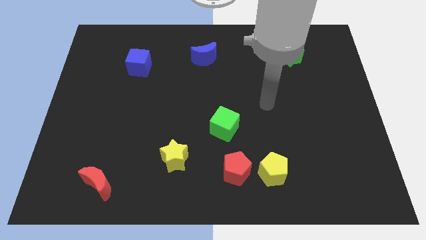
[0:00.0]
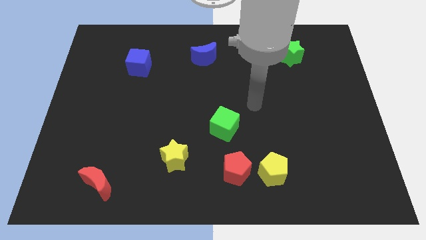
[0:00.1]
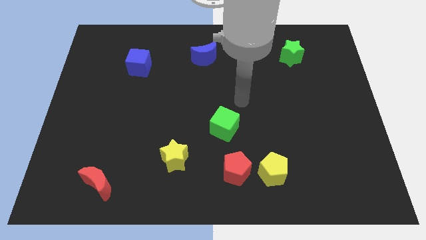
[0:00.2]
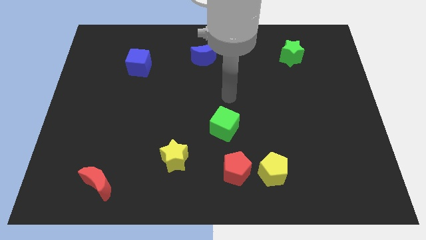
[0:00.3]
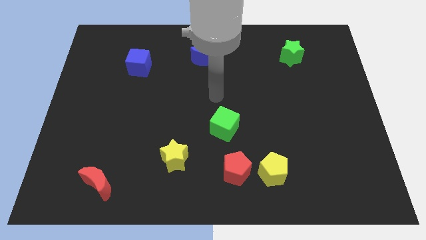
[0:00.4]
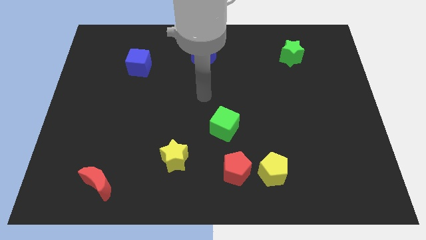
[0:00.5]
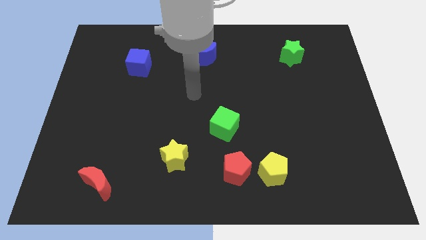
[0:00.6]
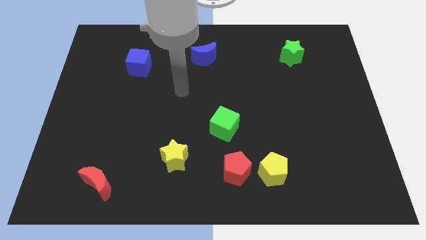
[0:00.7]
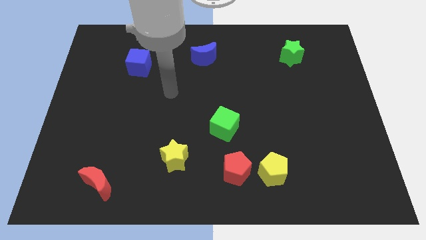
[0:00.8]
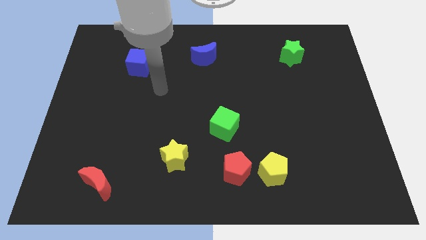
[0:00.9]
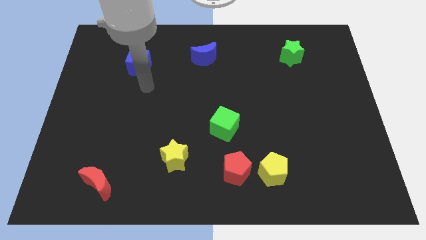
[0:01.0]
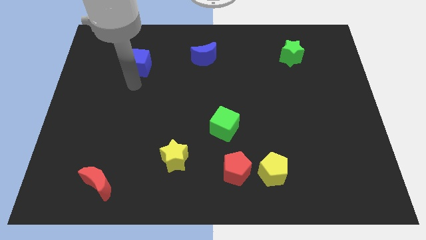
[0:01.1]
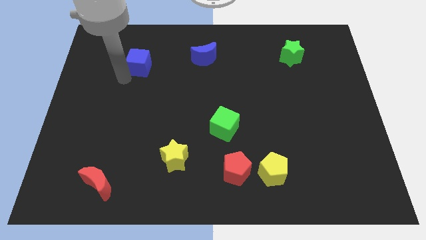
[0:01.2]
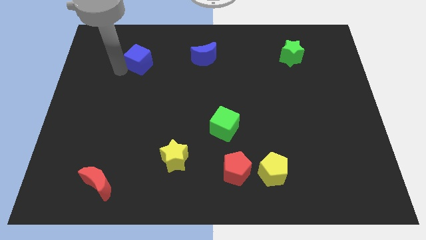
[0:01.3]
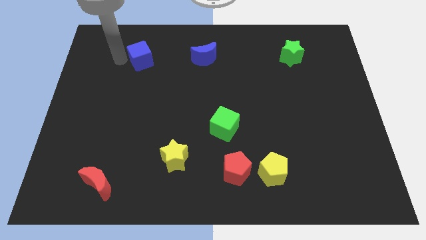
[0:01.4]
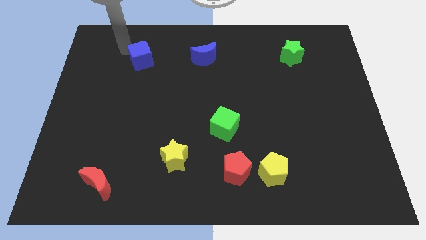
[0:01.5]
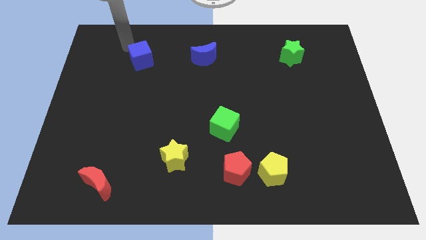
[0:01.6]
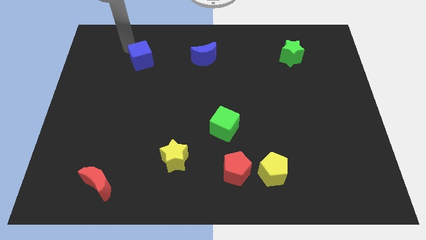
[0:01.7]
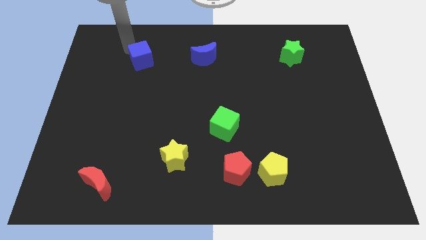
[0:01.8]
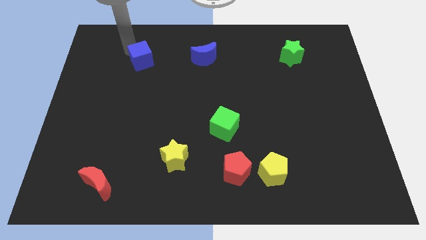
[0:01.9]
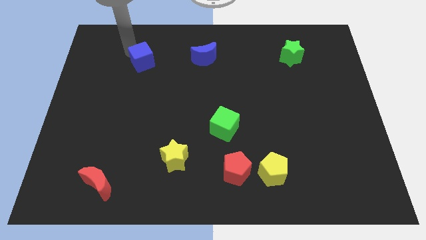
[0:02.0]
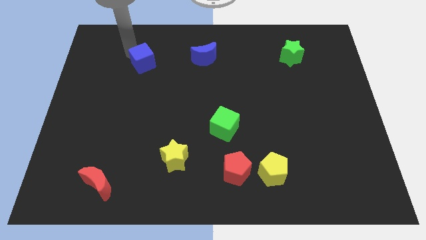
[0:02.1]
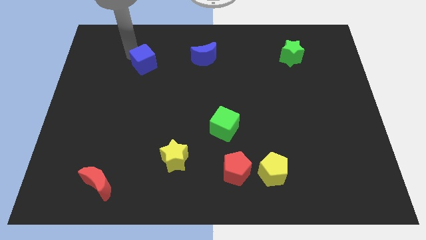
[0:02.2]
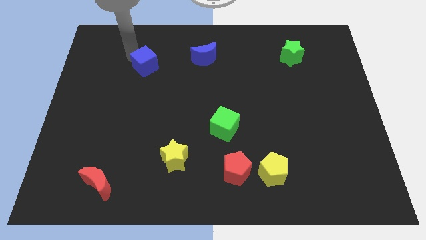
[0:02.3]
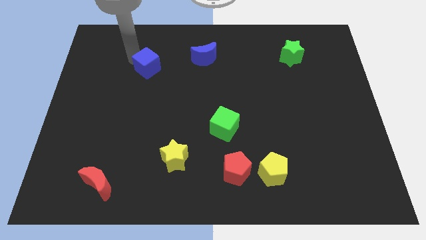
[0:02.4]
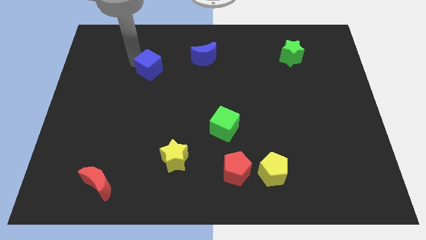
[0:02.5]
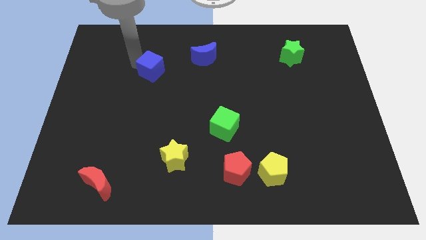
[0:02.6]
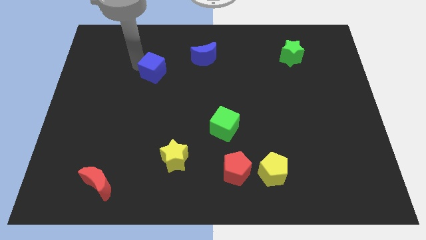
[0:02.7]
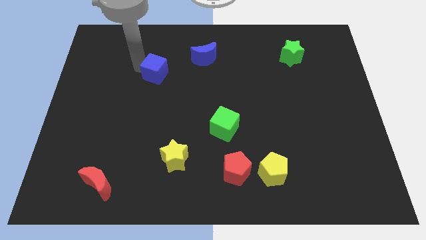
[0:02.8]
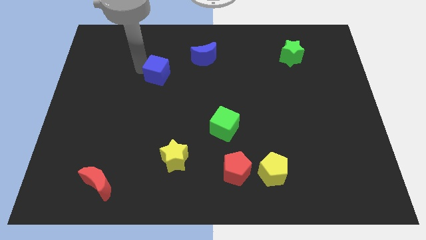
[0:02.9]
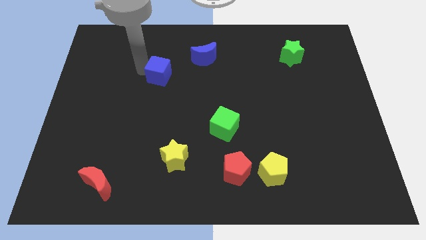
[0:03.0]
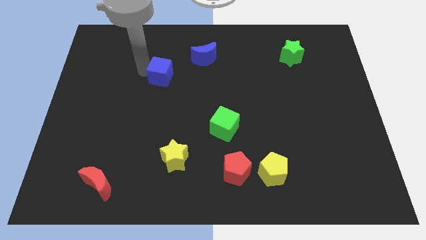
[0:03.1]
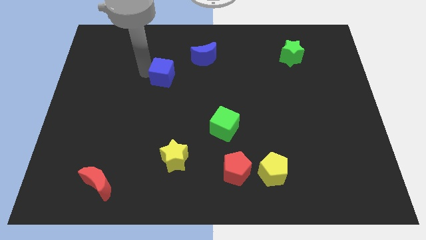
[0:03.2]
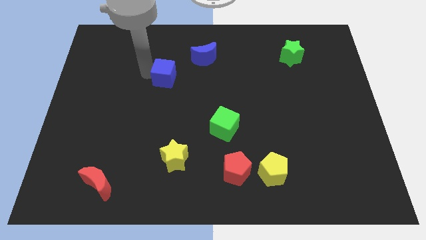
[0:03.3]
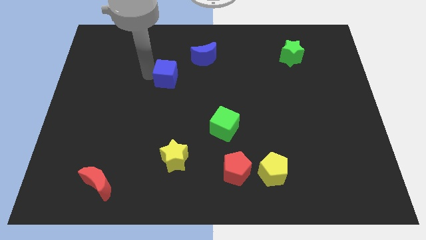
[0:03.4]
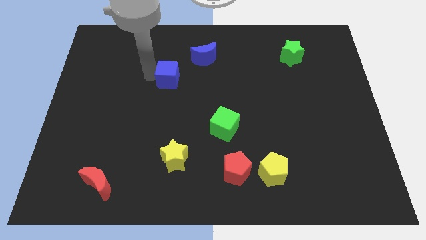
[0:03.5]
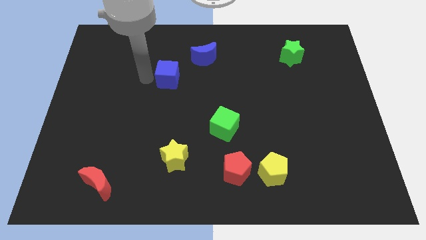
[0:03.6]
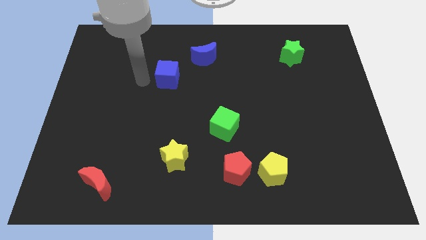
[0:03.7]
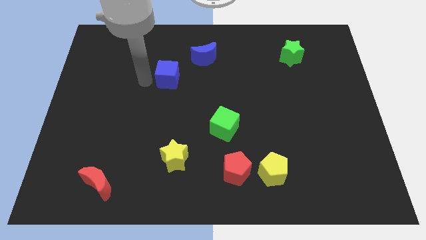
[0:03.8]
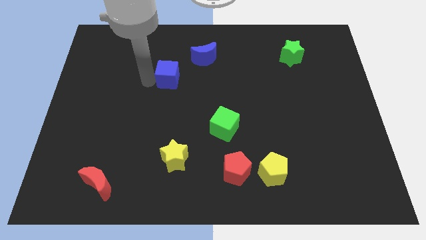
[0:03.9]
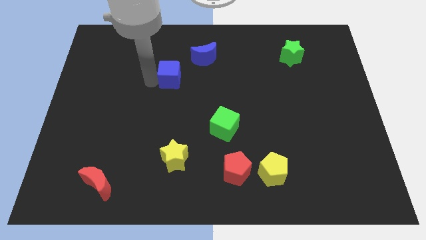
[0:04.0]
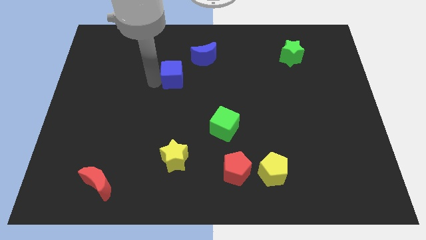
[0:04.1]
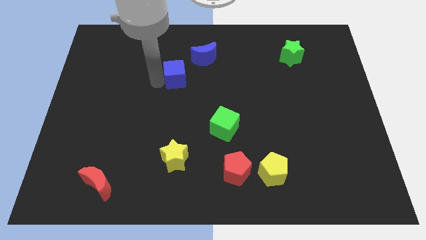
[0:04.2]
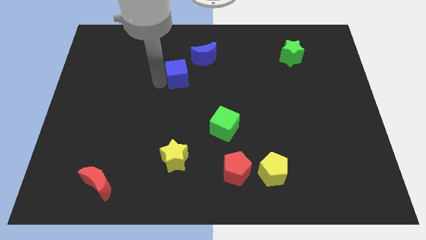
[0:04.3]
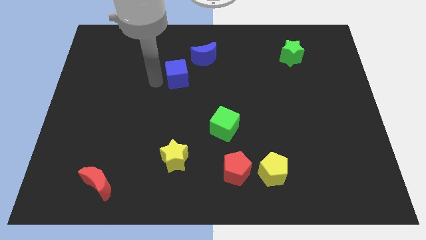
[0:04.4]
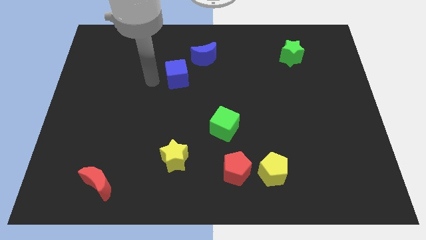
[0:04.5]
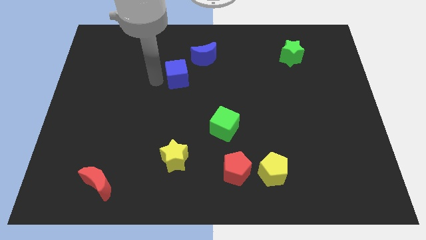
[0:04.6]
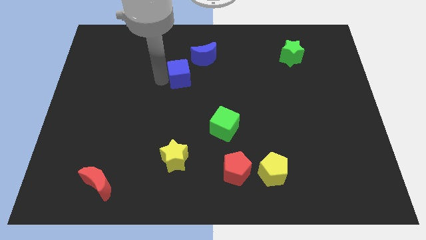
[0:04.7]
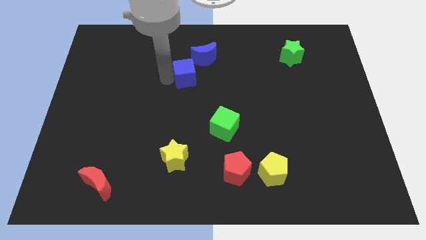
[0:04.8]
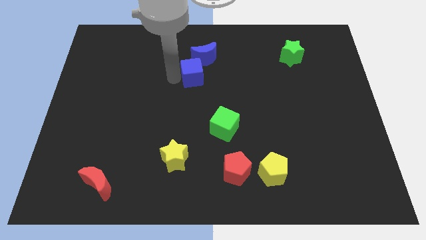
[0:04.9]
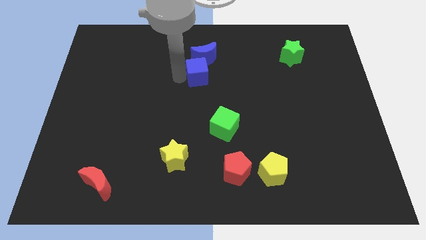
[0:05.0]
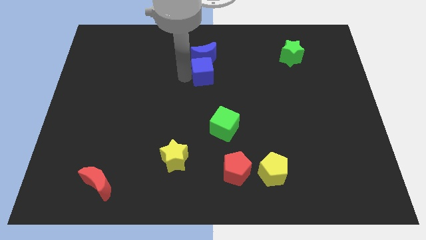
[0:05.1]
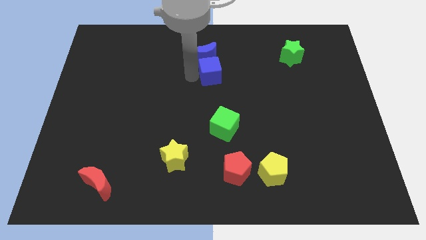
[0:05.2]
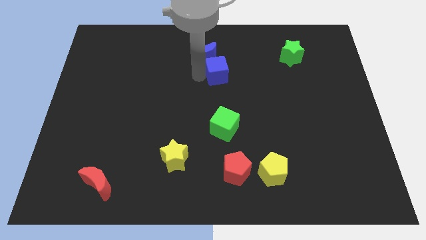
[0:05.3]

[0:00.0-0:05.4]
move the blue cube to the right

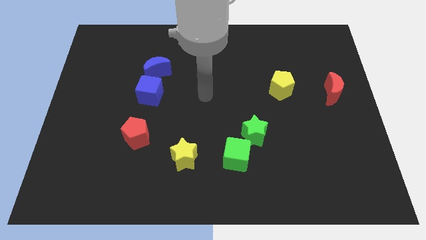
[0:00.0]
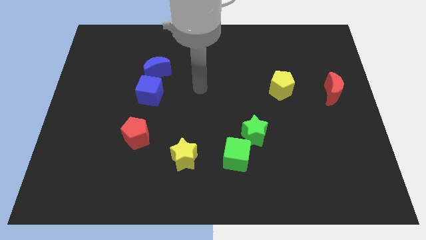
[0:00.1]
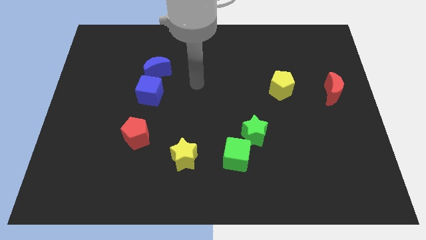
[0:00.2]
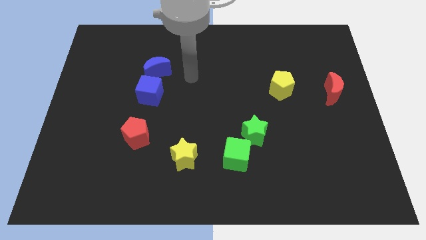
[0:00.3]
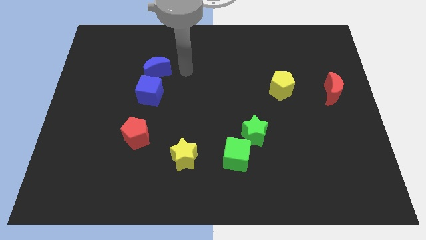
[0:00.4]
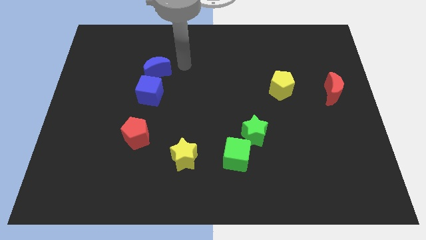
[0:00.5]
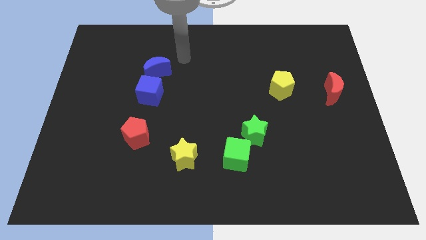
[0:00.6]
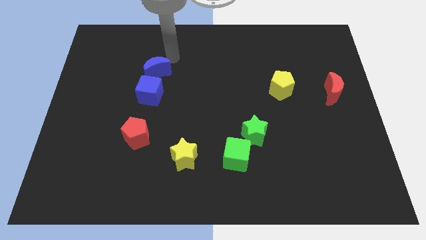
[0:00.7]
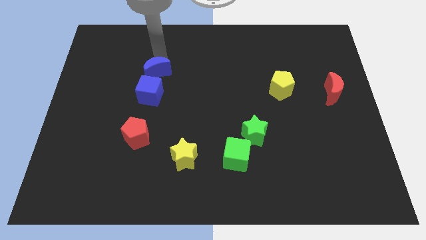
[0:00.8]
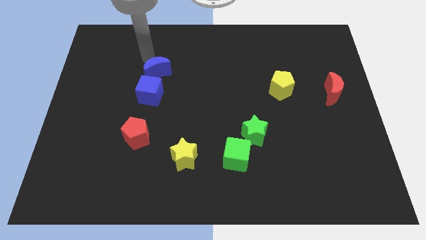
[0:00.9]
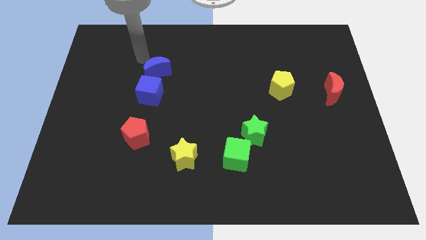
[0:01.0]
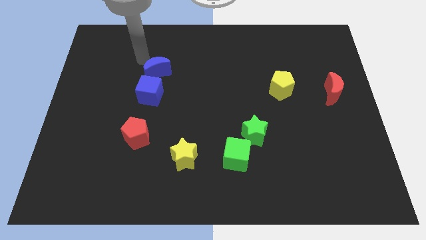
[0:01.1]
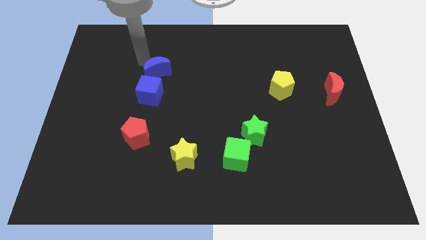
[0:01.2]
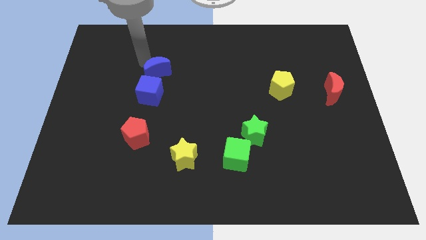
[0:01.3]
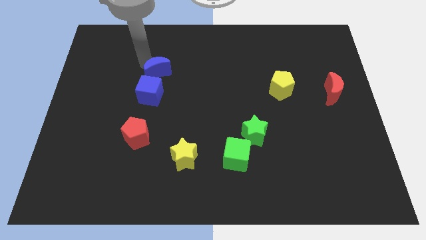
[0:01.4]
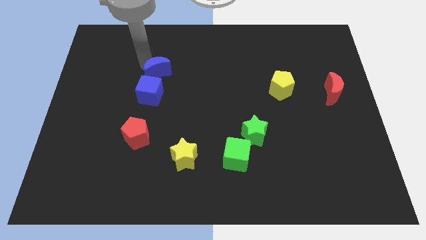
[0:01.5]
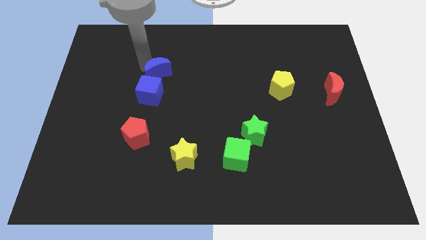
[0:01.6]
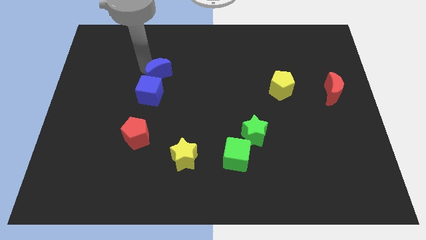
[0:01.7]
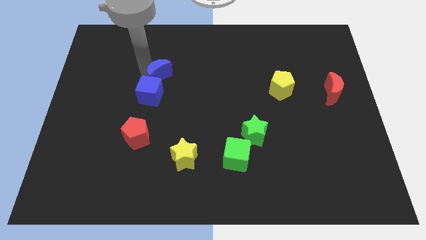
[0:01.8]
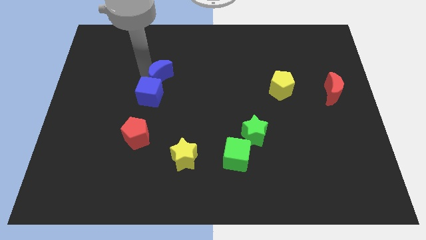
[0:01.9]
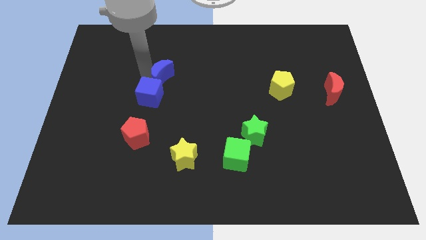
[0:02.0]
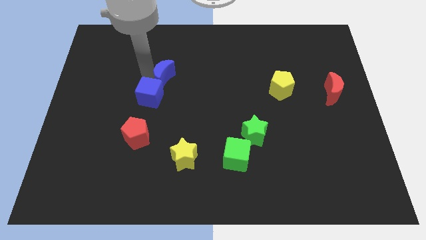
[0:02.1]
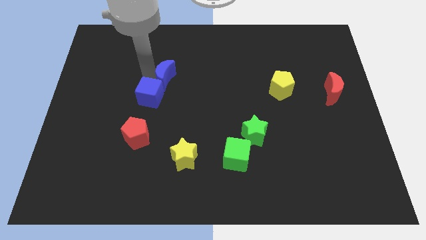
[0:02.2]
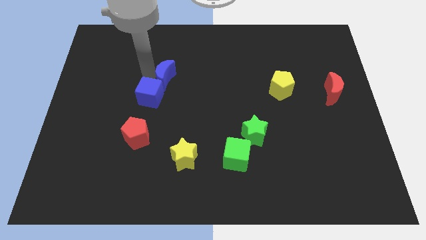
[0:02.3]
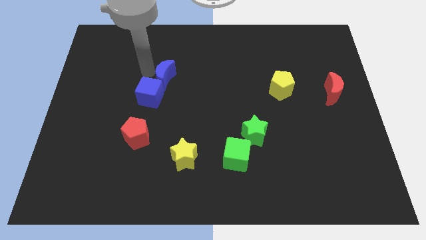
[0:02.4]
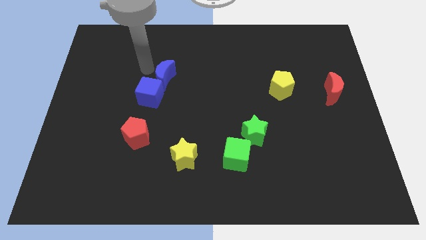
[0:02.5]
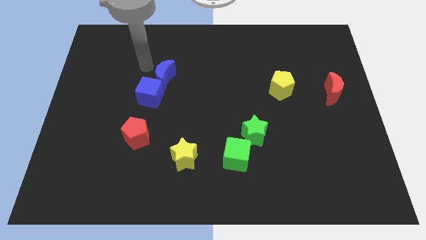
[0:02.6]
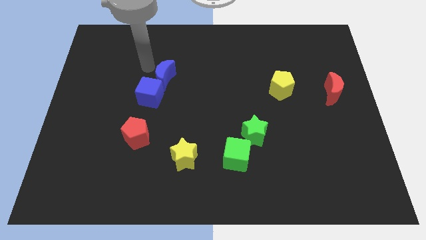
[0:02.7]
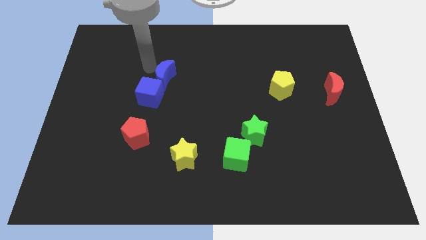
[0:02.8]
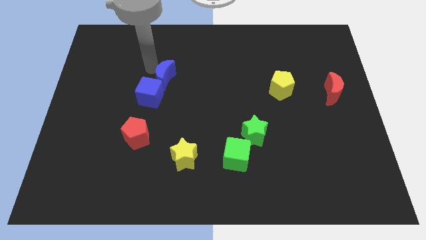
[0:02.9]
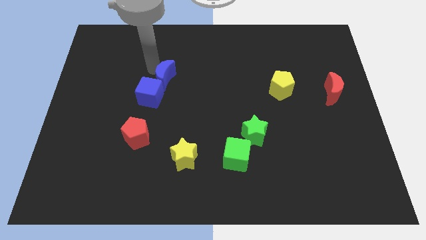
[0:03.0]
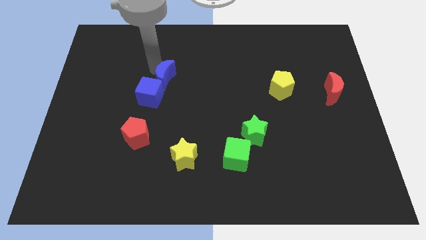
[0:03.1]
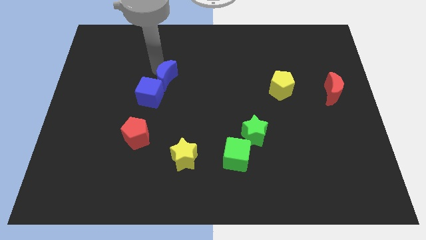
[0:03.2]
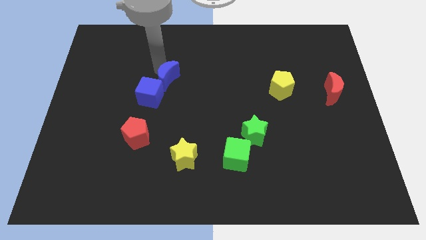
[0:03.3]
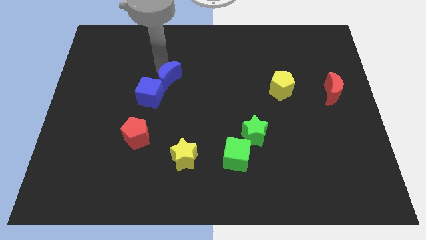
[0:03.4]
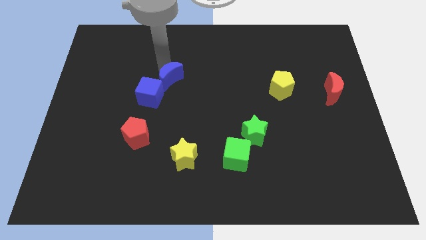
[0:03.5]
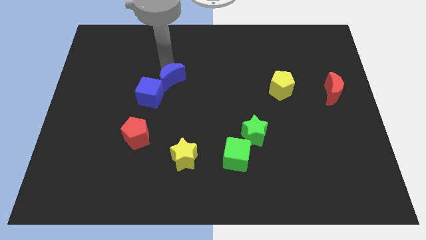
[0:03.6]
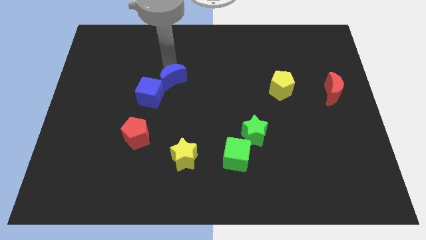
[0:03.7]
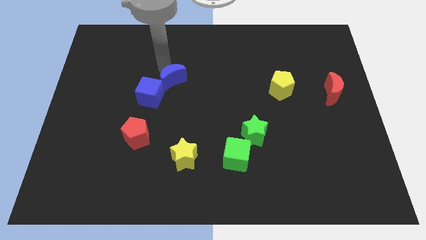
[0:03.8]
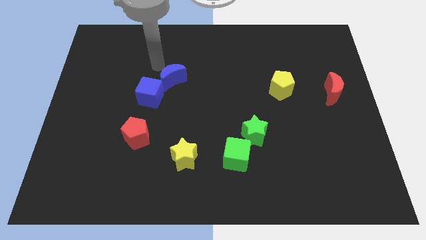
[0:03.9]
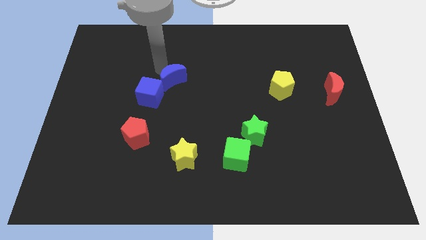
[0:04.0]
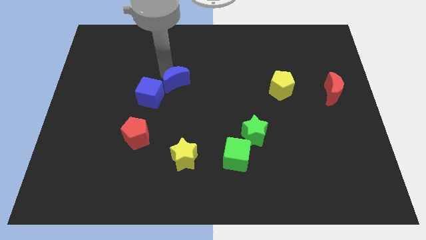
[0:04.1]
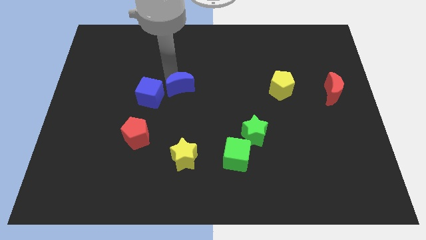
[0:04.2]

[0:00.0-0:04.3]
push the blue moon a little bit downwards and to the right
